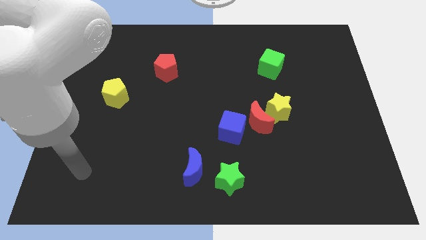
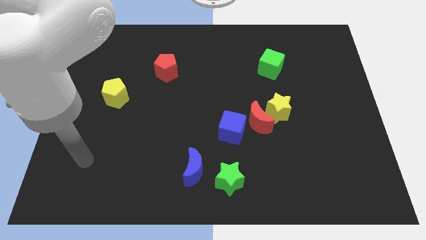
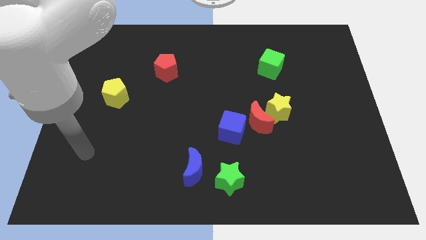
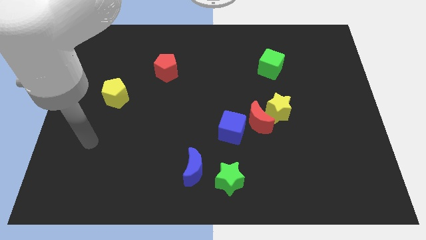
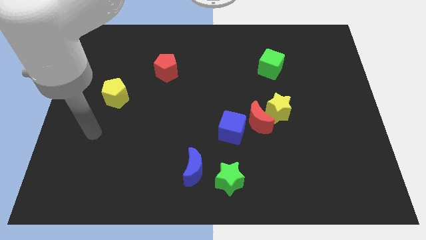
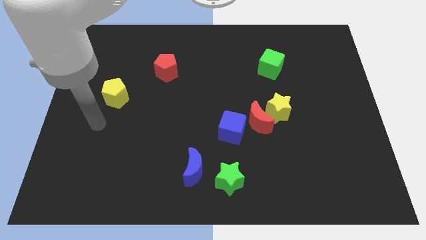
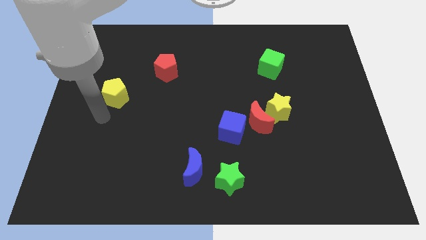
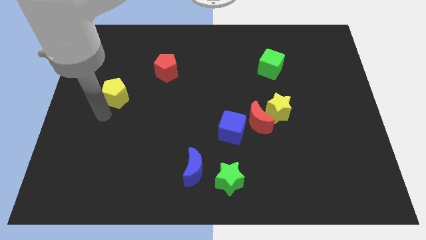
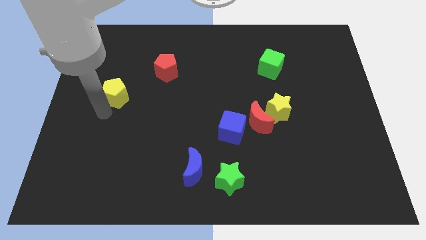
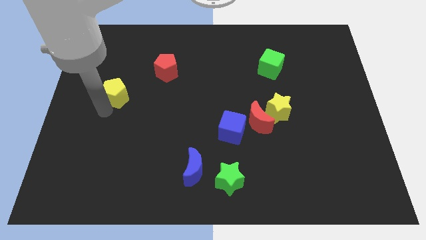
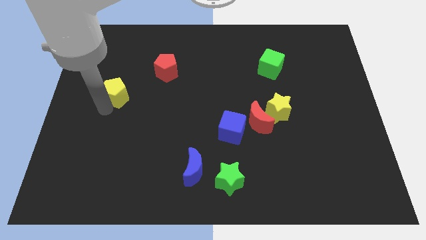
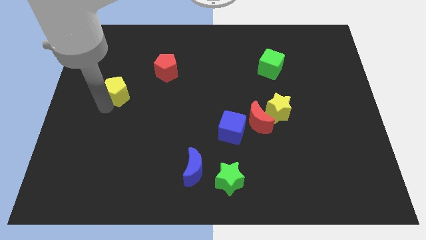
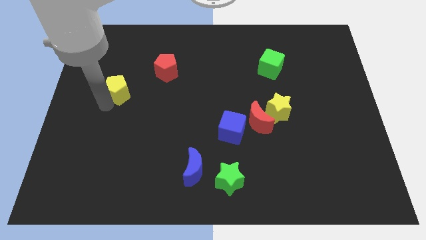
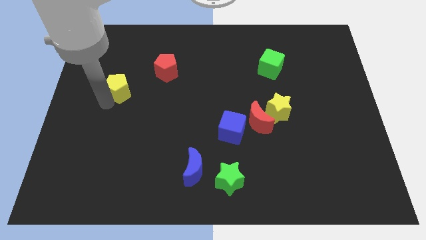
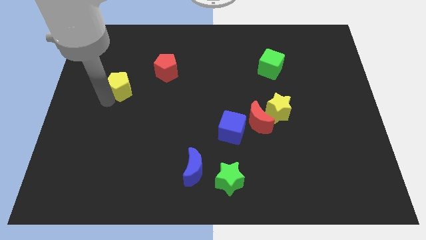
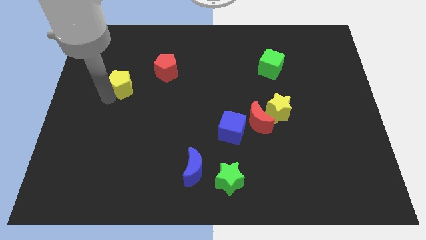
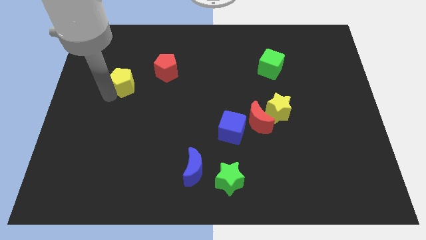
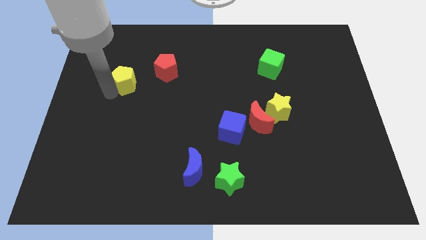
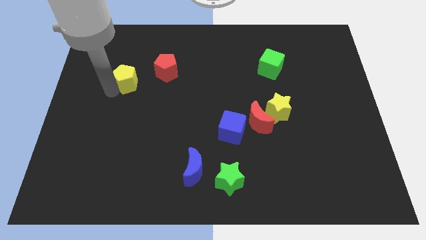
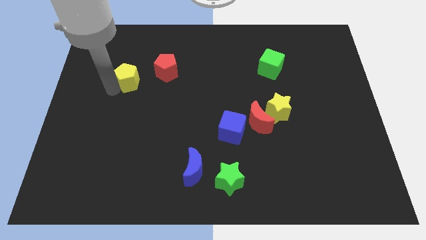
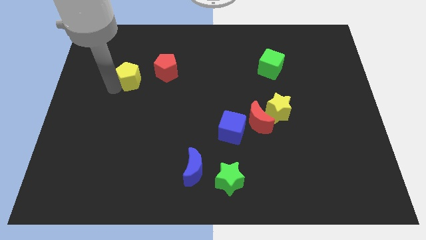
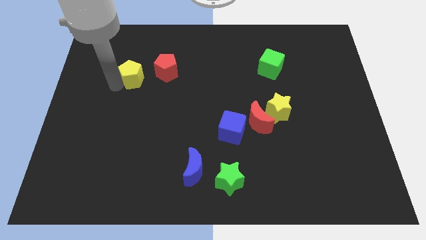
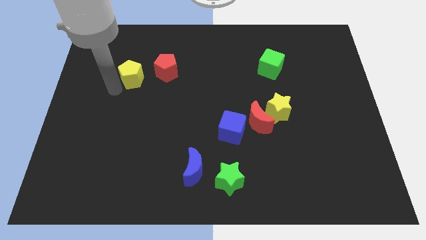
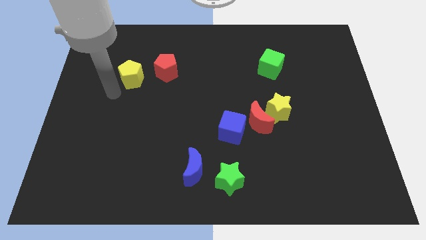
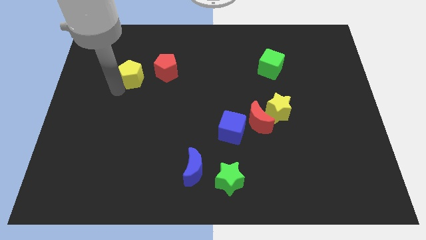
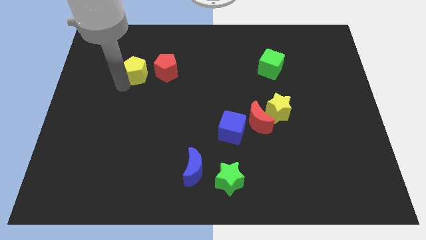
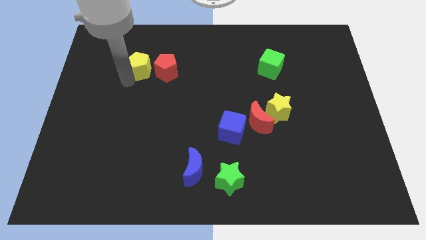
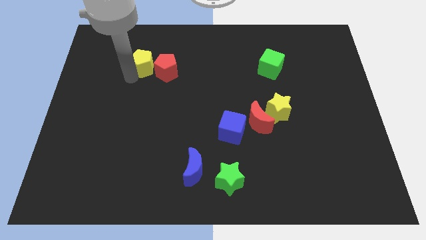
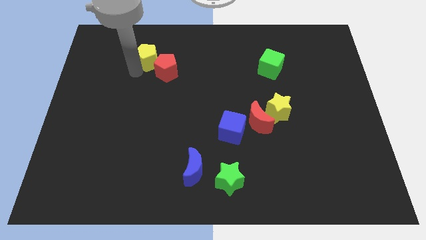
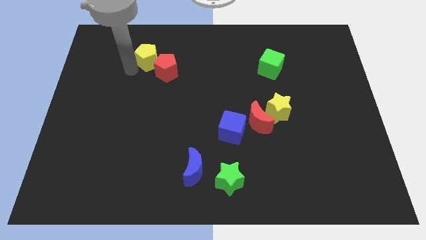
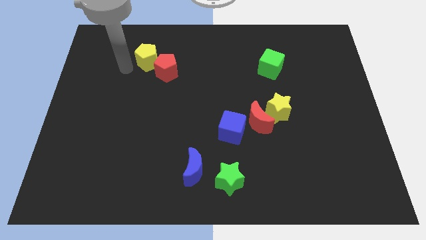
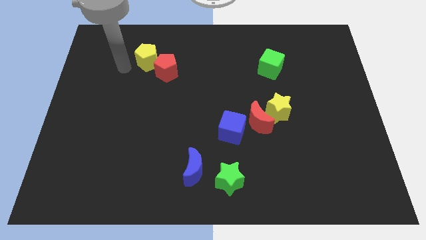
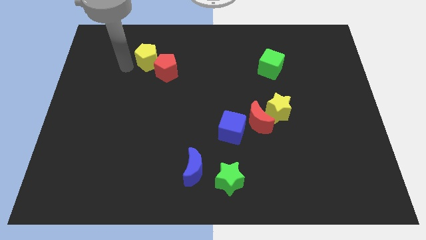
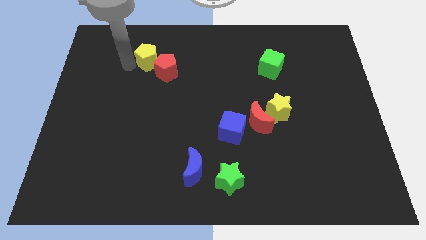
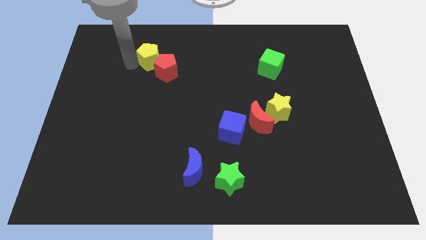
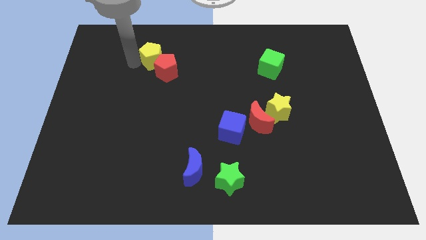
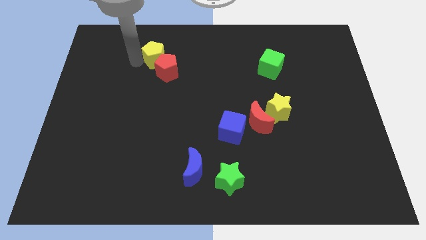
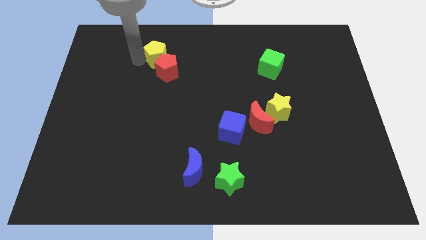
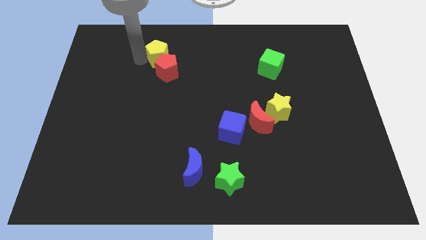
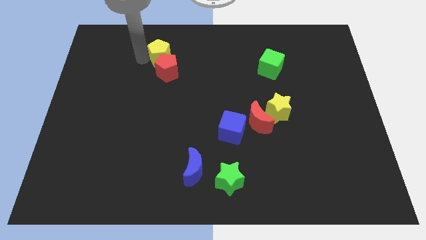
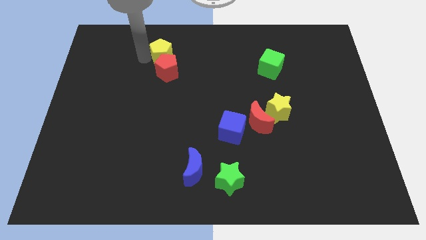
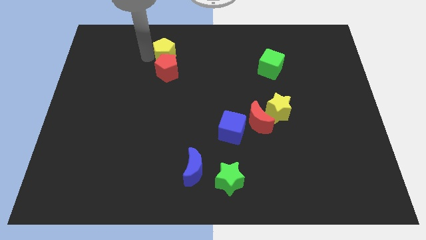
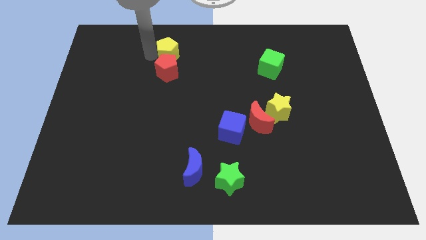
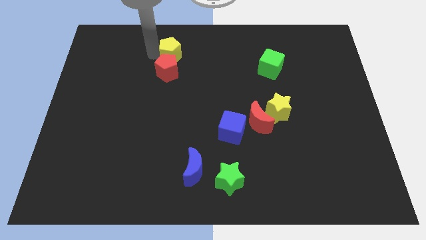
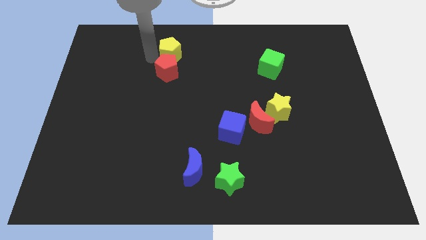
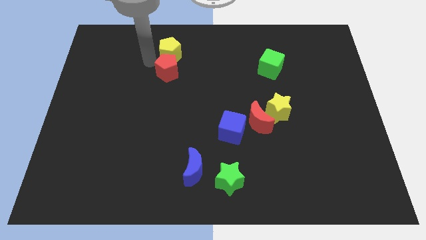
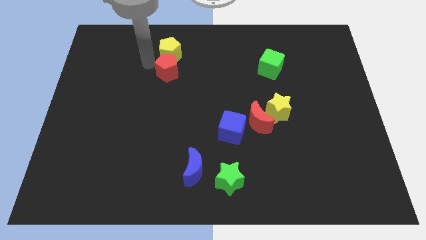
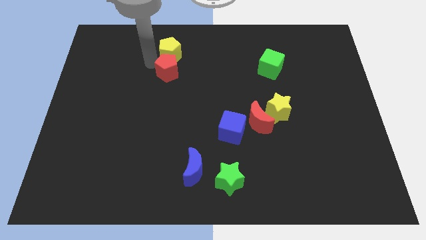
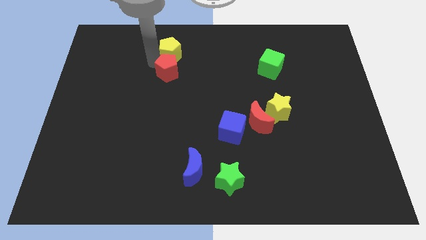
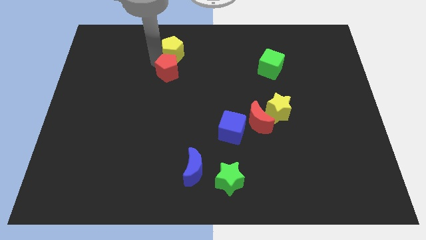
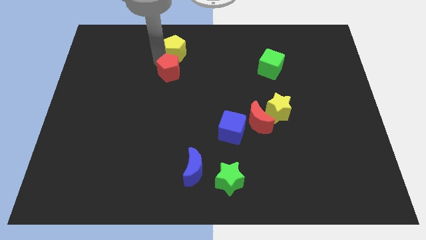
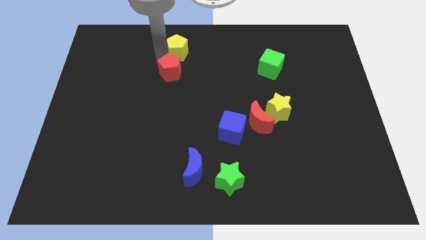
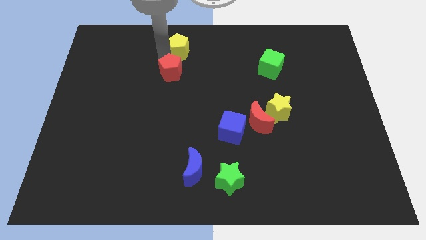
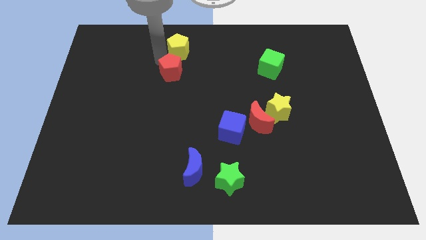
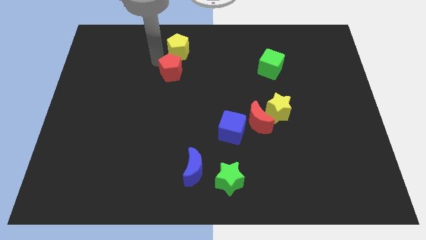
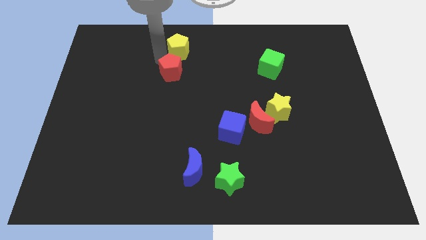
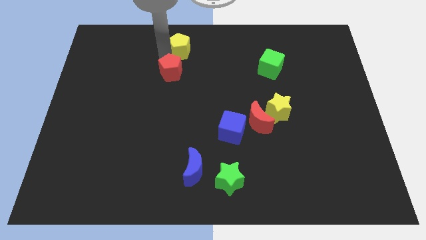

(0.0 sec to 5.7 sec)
move the yellow pentagon to the top side

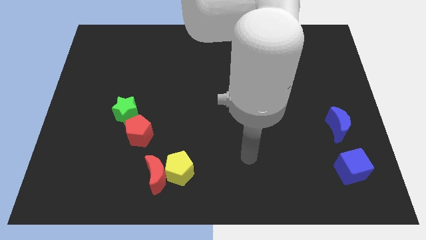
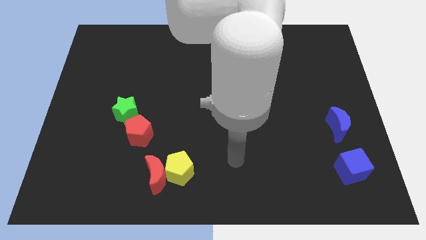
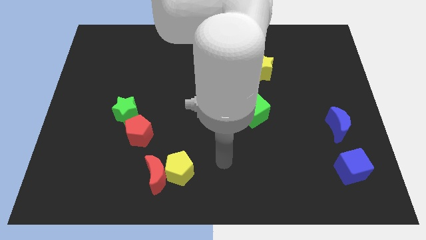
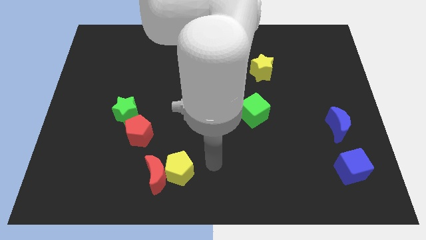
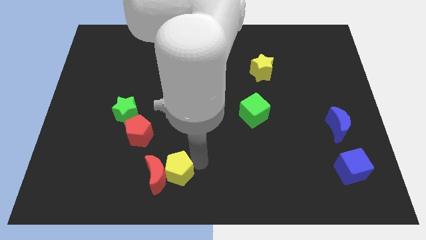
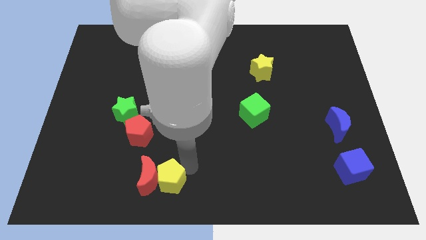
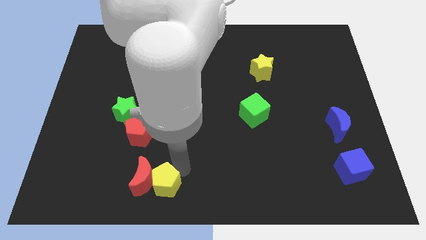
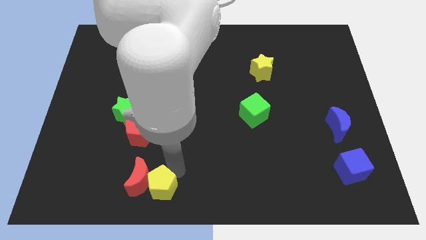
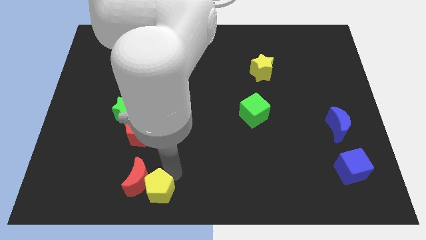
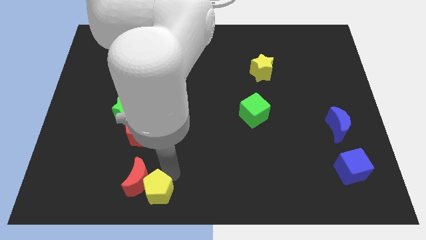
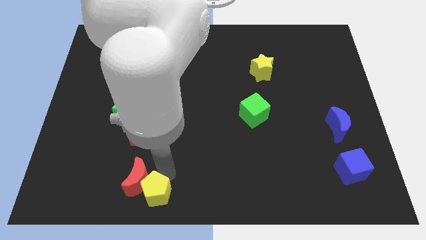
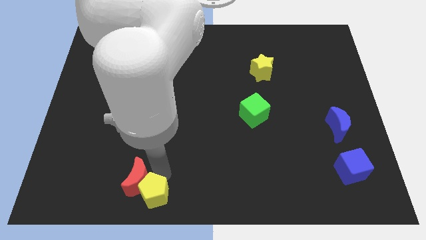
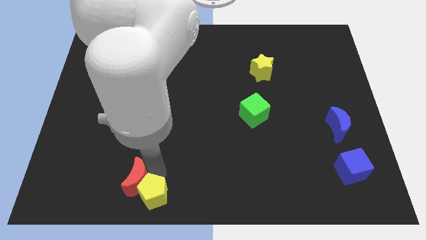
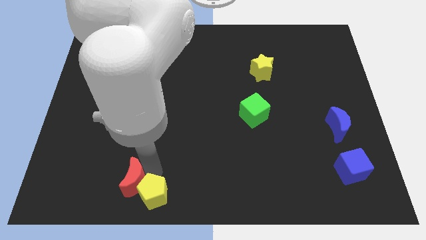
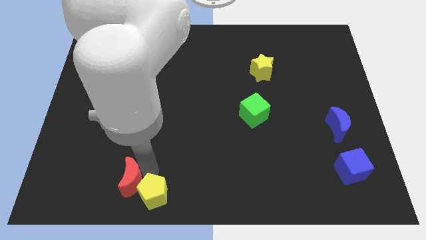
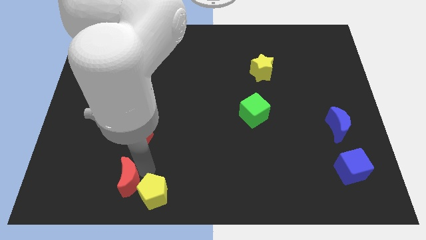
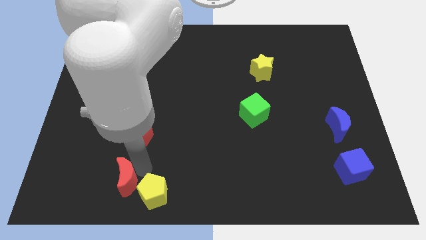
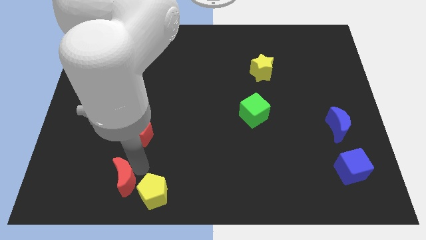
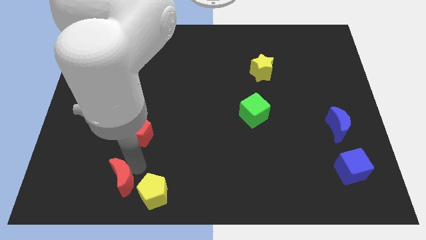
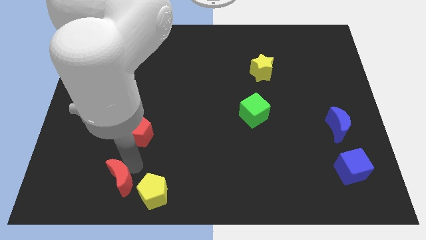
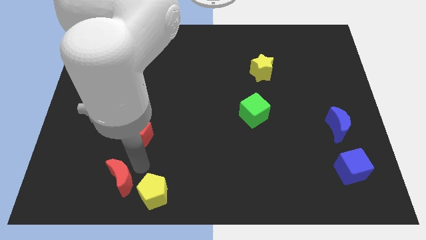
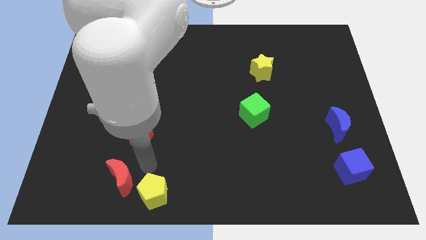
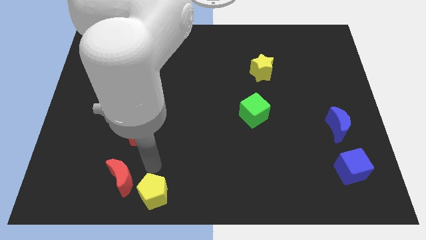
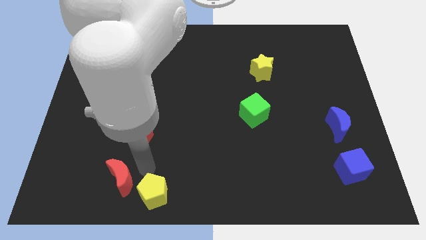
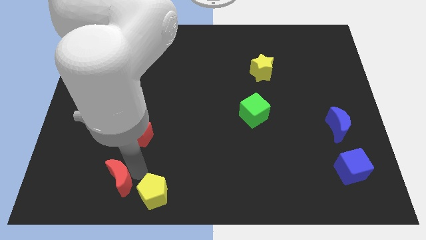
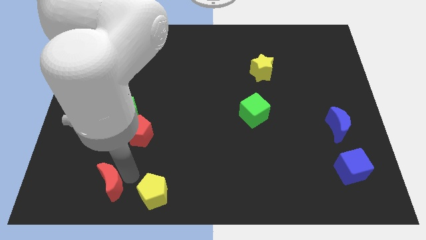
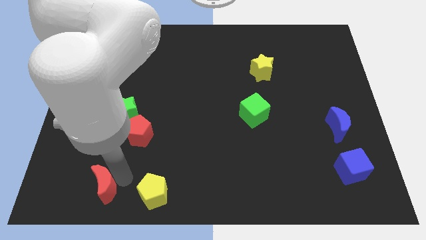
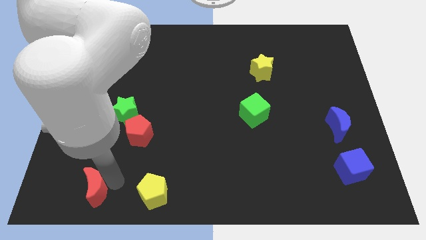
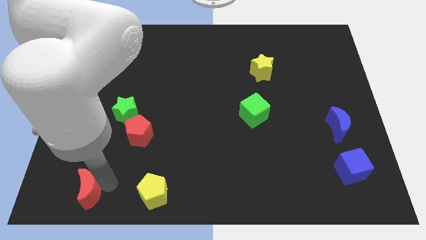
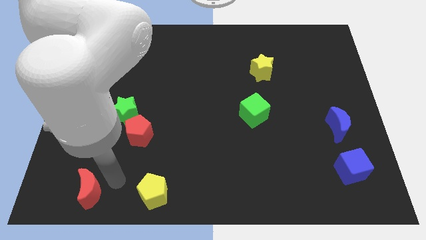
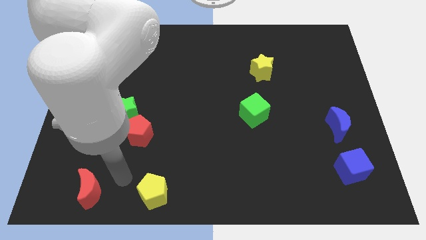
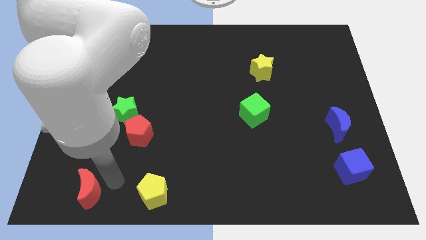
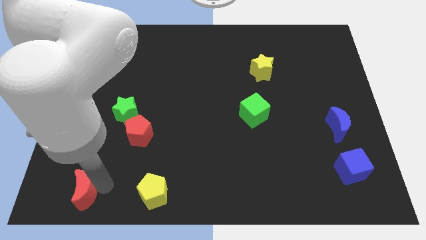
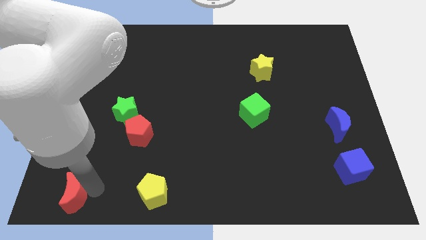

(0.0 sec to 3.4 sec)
put the red moon to the lower left corner
